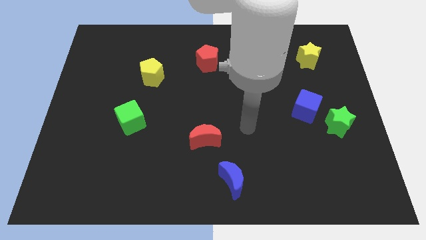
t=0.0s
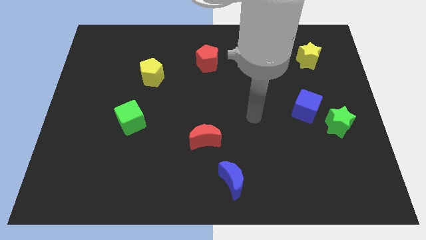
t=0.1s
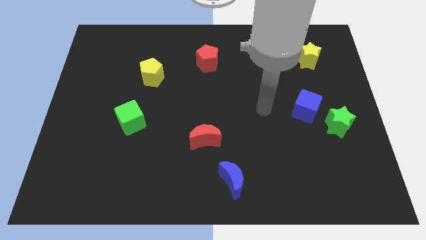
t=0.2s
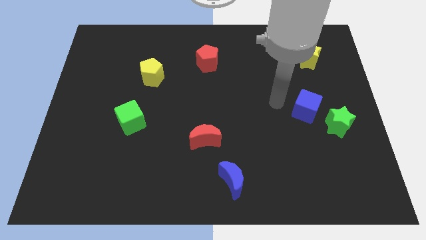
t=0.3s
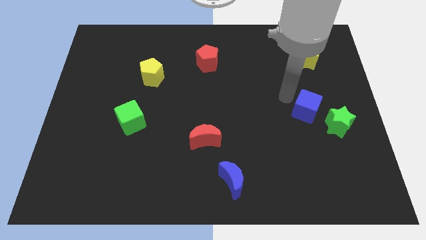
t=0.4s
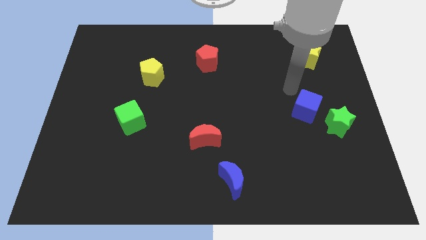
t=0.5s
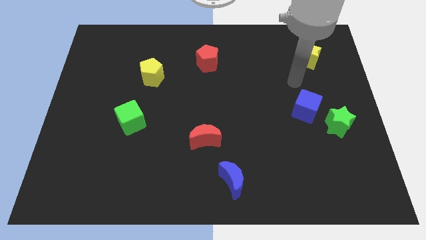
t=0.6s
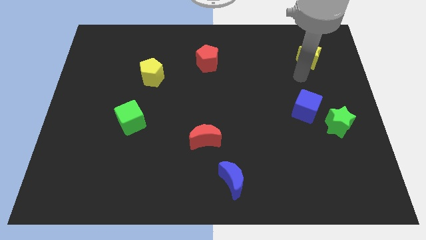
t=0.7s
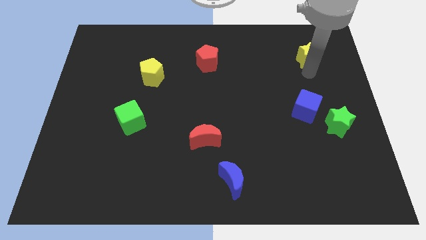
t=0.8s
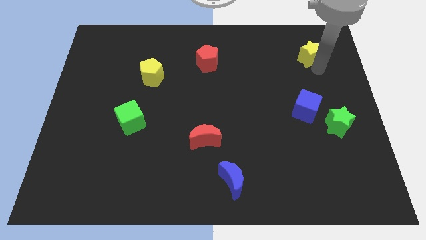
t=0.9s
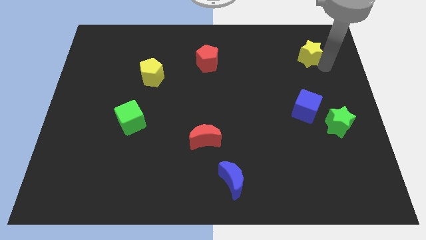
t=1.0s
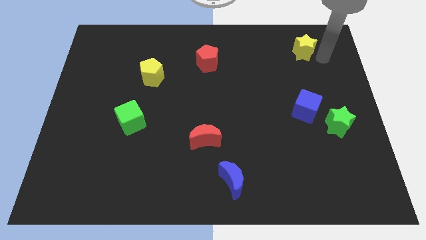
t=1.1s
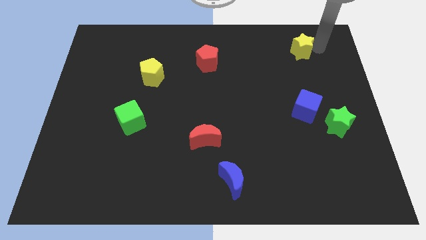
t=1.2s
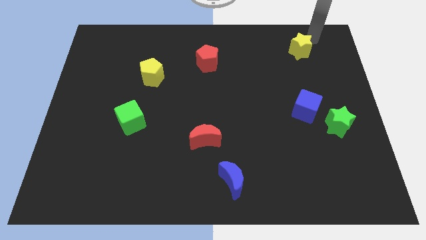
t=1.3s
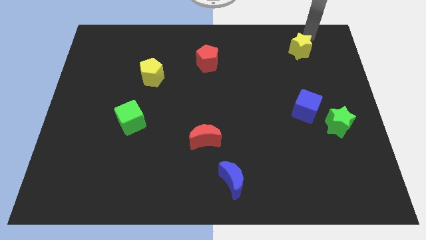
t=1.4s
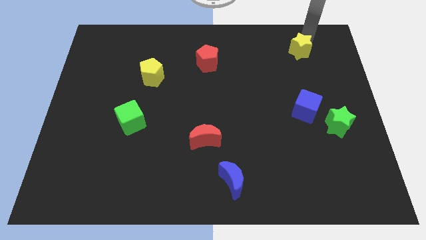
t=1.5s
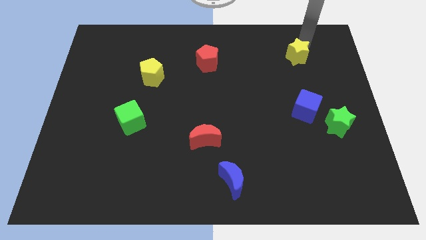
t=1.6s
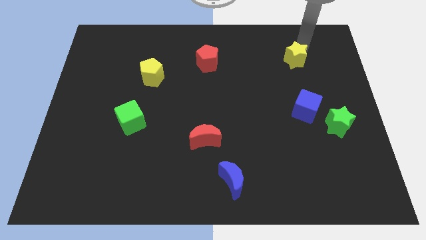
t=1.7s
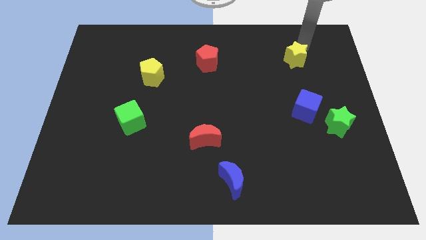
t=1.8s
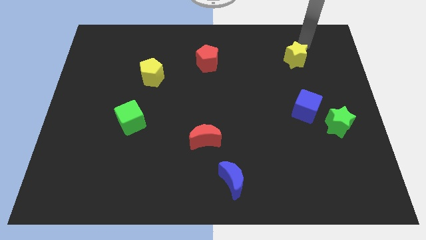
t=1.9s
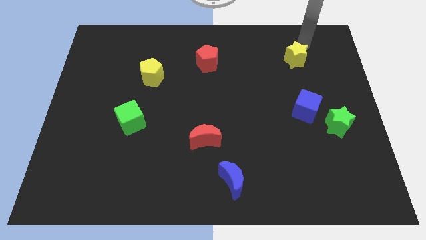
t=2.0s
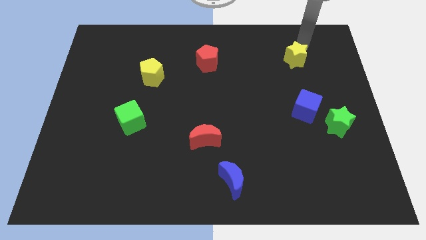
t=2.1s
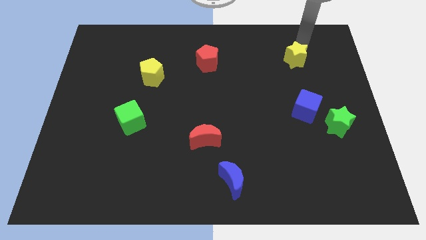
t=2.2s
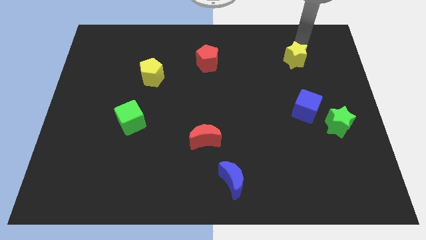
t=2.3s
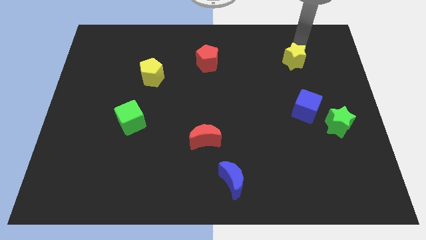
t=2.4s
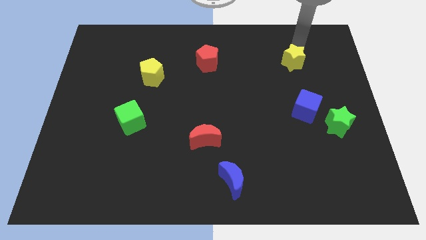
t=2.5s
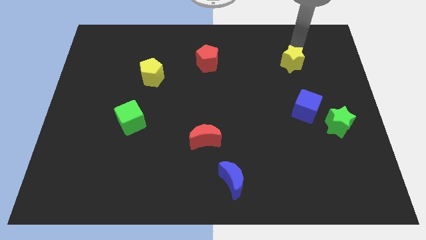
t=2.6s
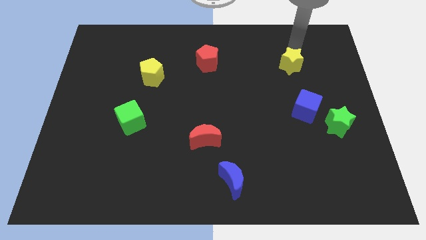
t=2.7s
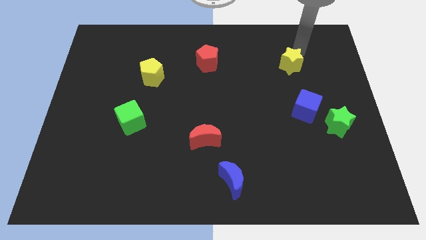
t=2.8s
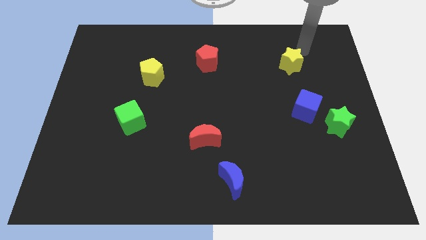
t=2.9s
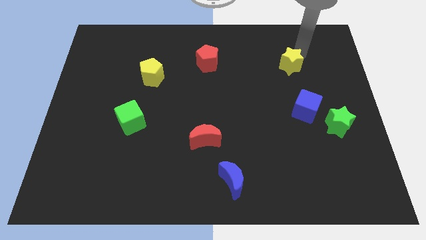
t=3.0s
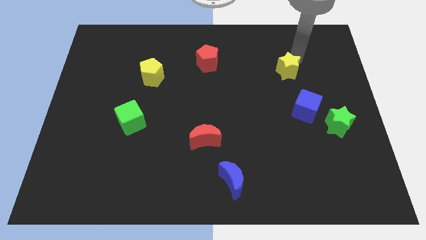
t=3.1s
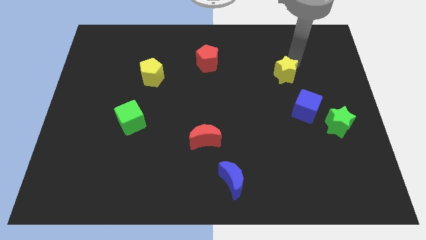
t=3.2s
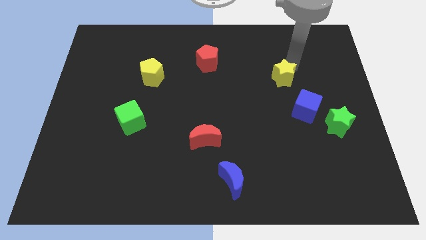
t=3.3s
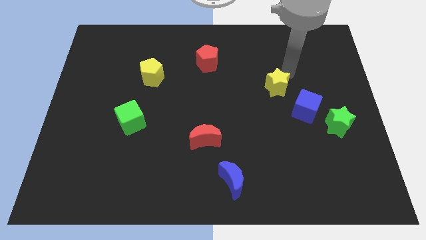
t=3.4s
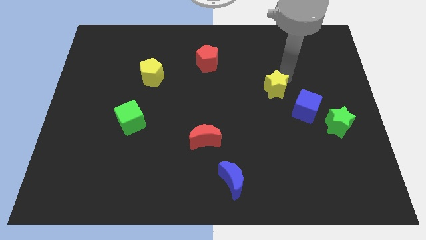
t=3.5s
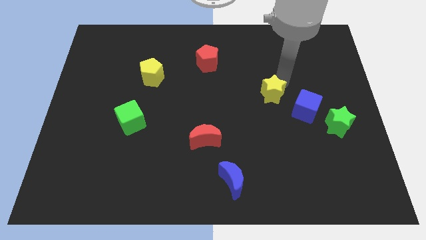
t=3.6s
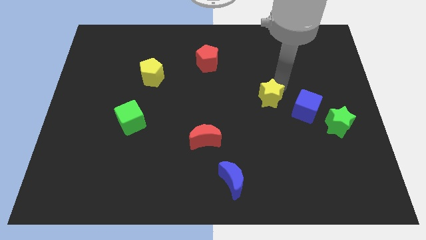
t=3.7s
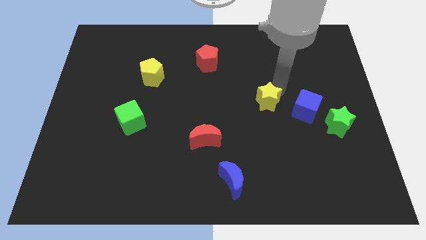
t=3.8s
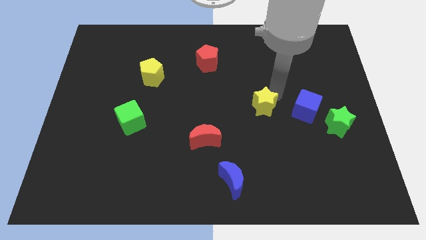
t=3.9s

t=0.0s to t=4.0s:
slide the yellow star downwards and left diagonally

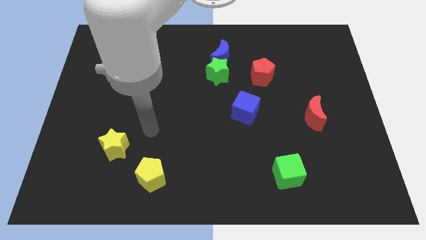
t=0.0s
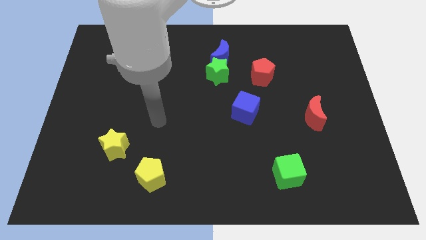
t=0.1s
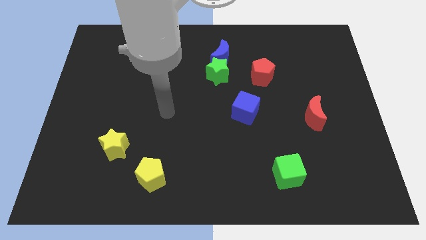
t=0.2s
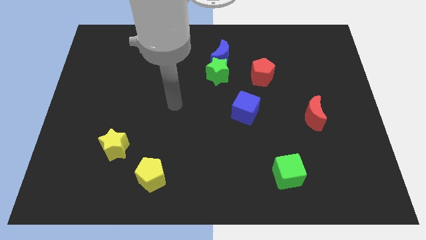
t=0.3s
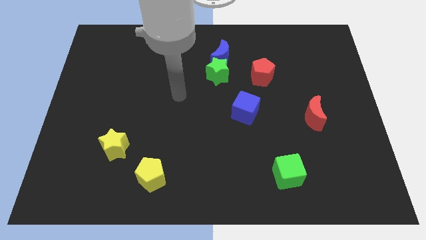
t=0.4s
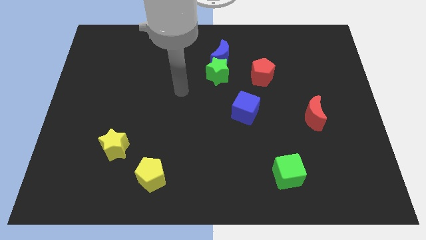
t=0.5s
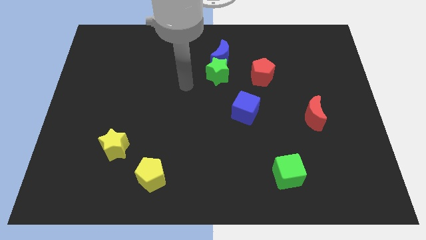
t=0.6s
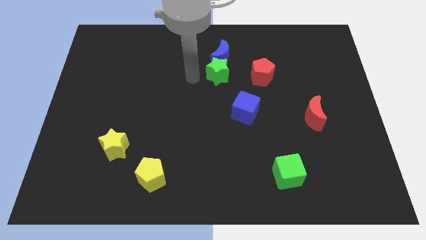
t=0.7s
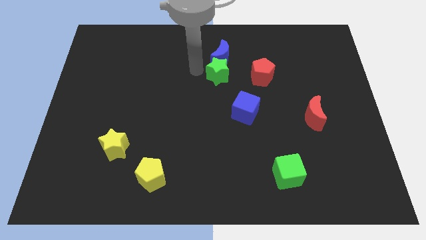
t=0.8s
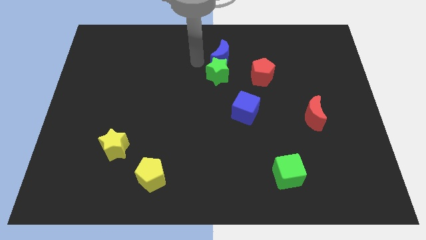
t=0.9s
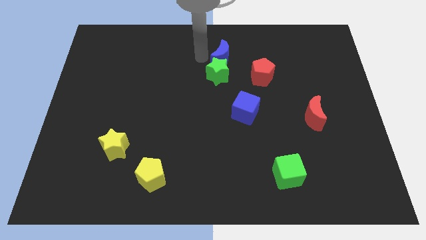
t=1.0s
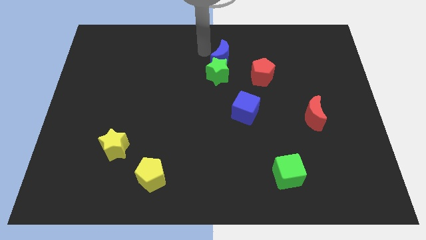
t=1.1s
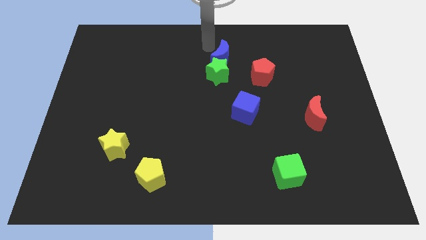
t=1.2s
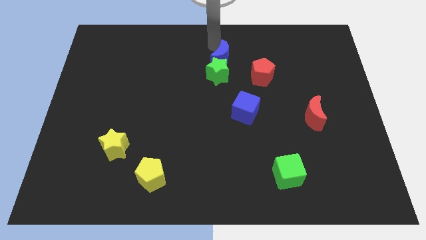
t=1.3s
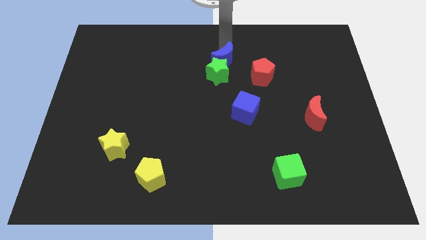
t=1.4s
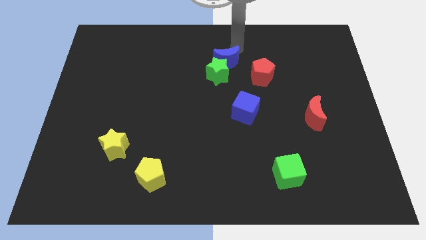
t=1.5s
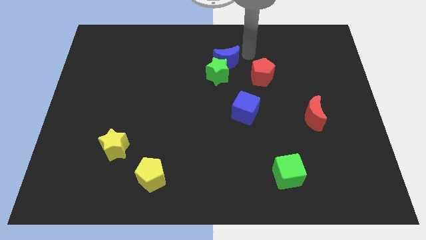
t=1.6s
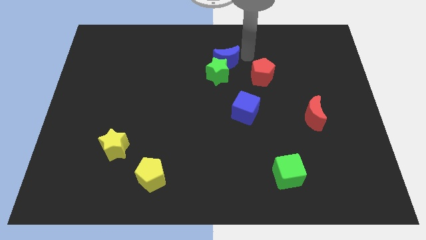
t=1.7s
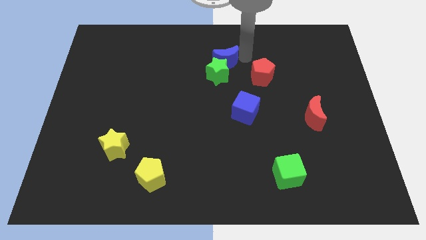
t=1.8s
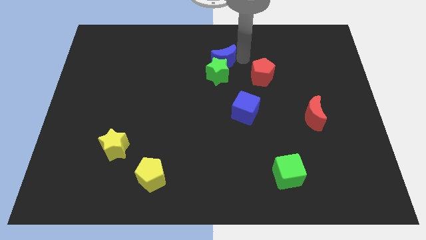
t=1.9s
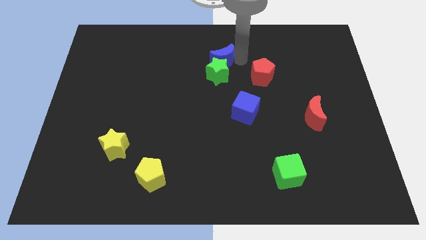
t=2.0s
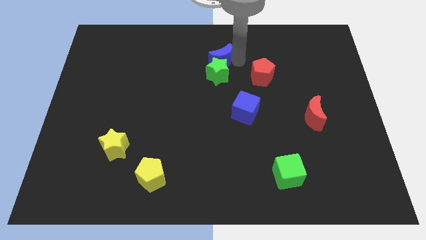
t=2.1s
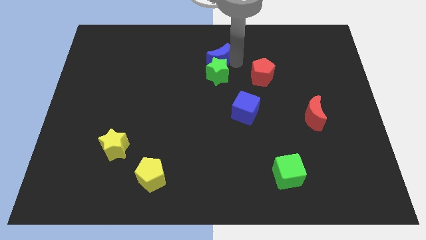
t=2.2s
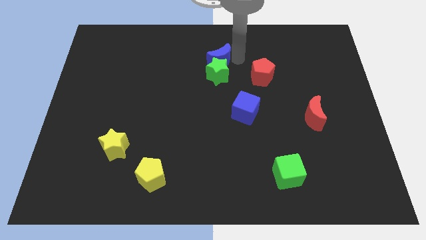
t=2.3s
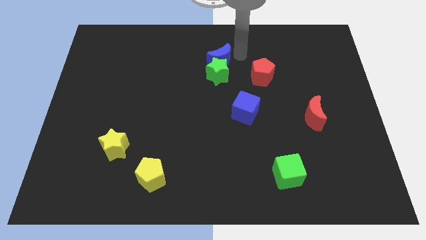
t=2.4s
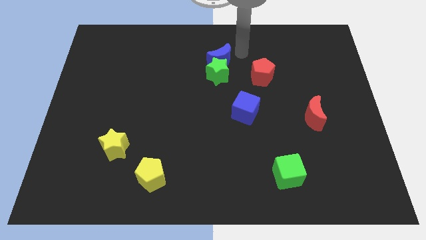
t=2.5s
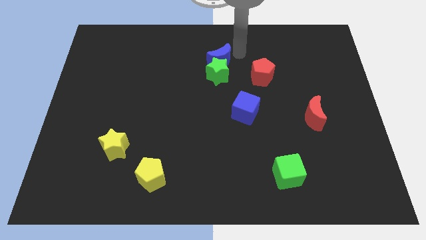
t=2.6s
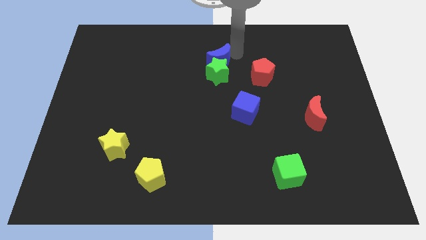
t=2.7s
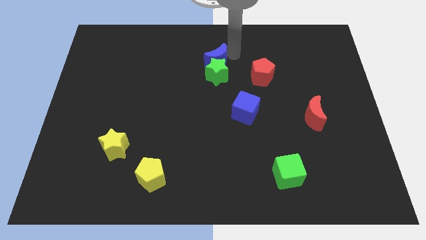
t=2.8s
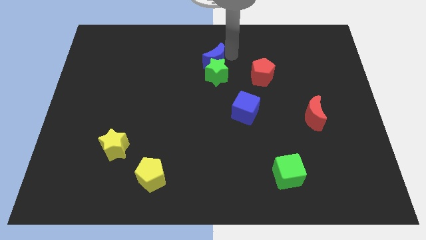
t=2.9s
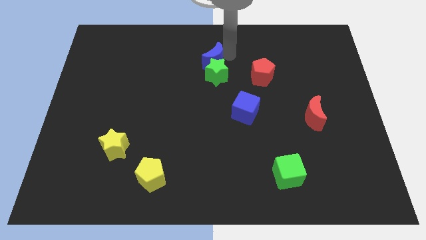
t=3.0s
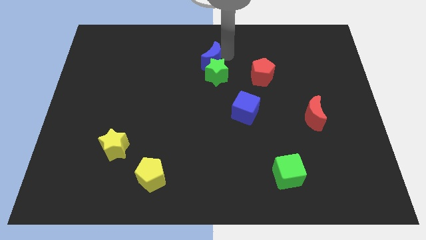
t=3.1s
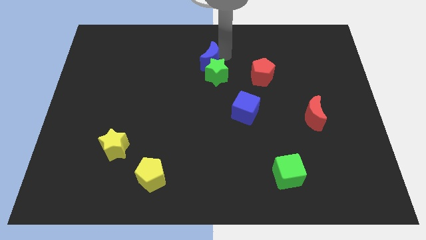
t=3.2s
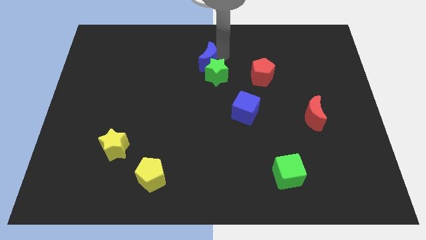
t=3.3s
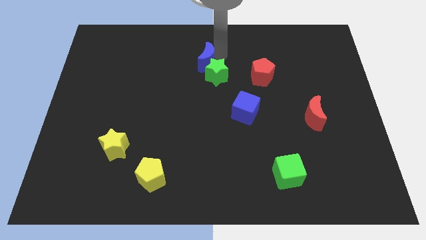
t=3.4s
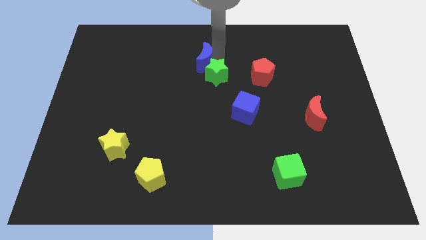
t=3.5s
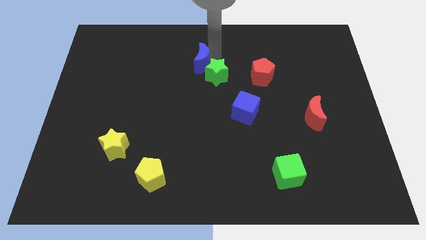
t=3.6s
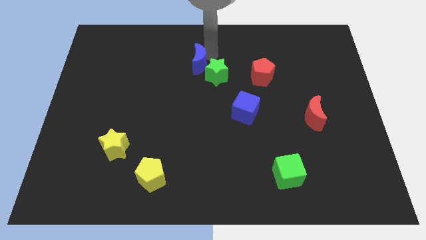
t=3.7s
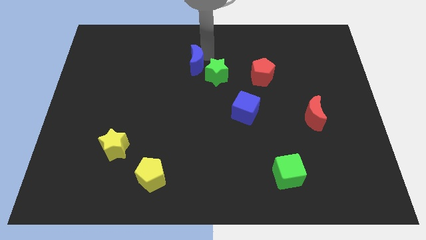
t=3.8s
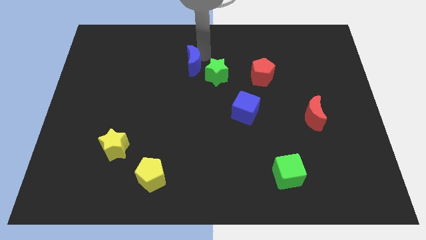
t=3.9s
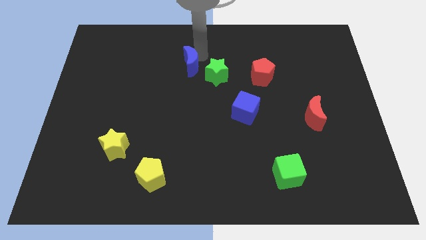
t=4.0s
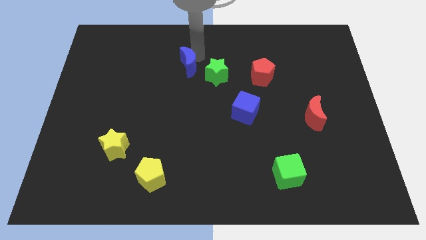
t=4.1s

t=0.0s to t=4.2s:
slide the blue moon downwards and to the left diagonally a little bit
